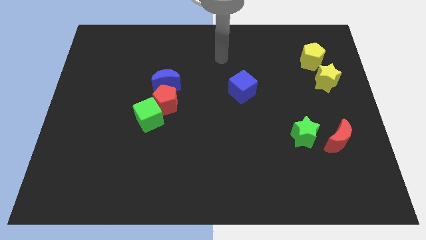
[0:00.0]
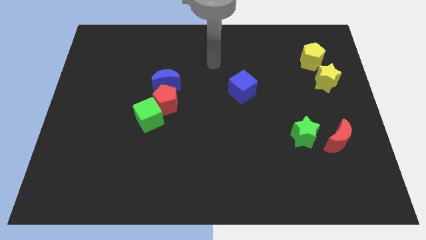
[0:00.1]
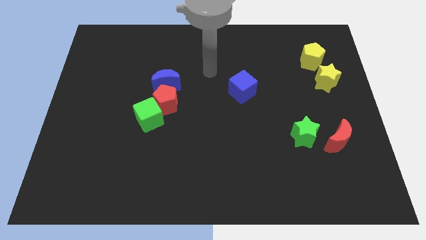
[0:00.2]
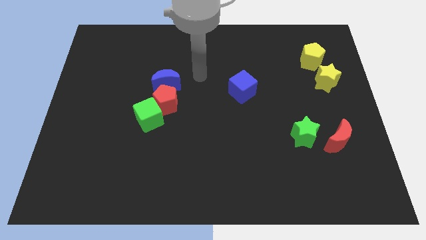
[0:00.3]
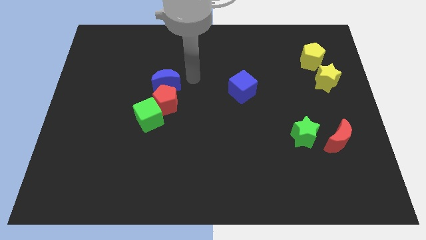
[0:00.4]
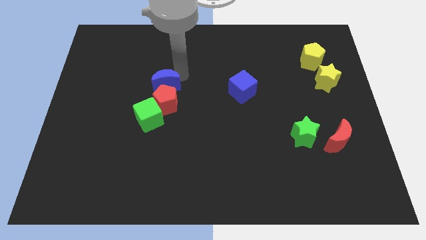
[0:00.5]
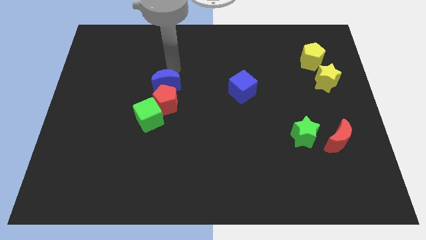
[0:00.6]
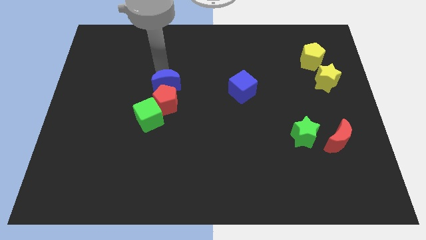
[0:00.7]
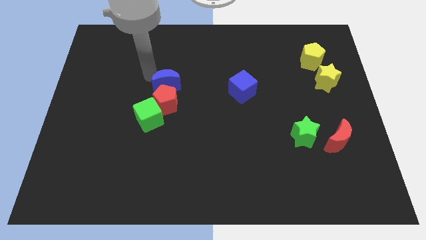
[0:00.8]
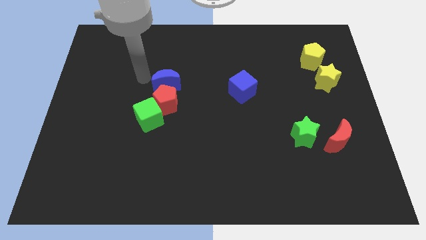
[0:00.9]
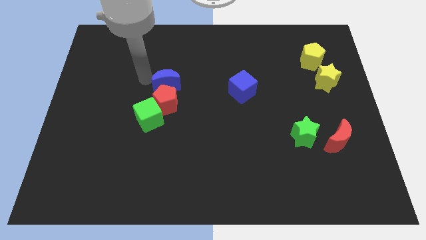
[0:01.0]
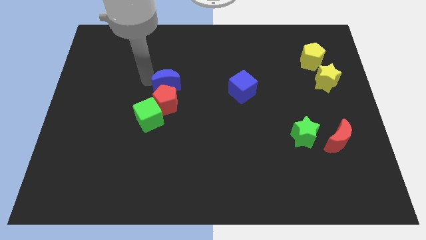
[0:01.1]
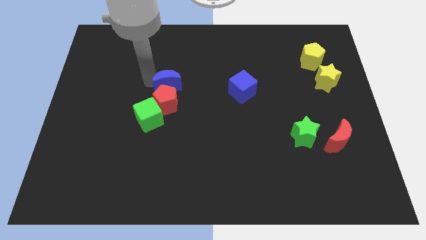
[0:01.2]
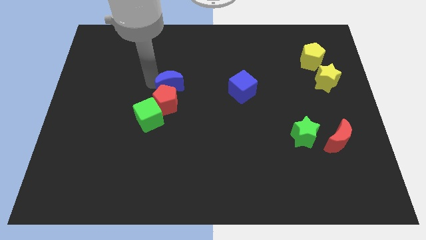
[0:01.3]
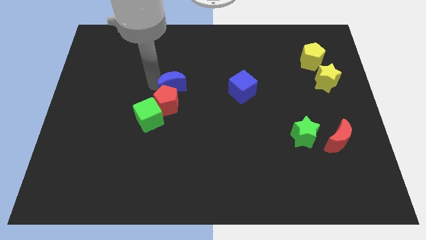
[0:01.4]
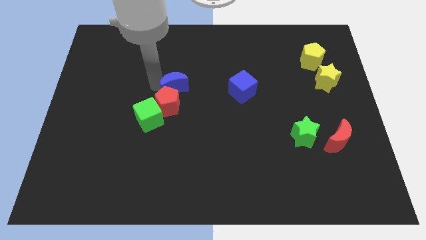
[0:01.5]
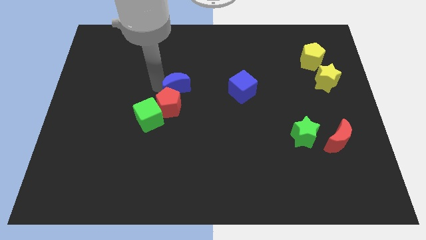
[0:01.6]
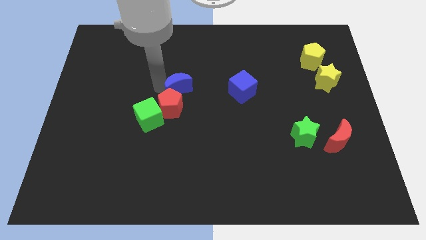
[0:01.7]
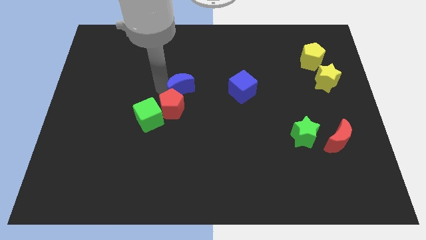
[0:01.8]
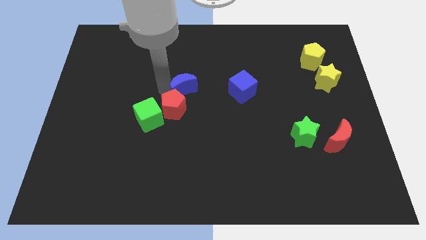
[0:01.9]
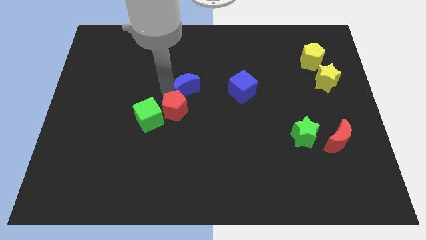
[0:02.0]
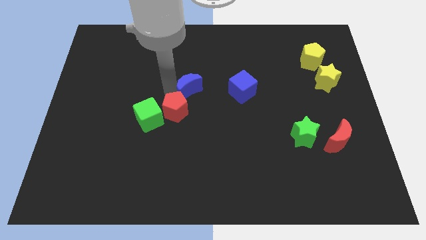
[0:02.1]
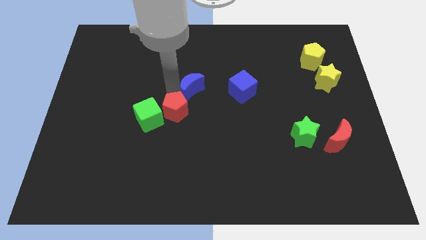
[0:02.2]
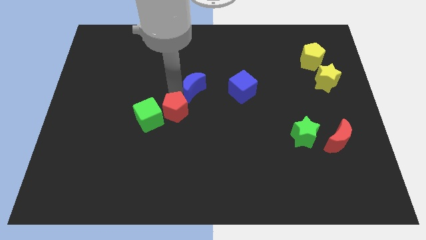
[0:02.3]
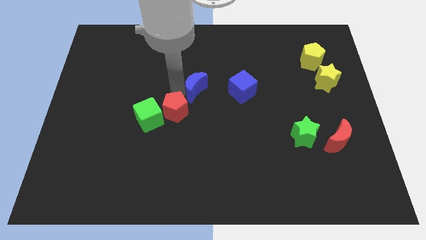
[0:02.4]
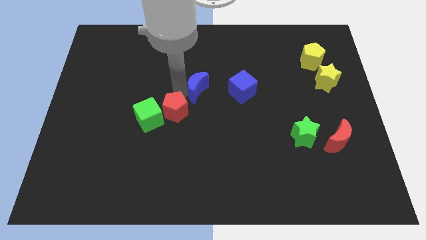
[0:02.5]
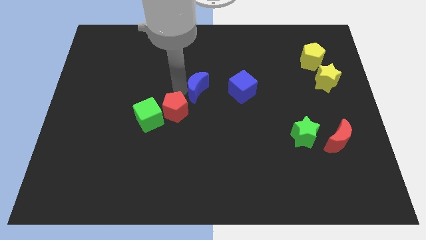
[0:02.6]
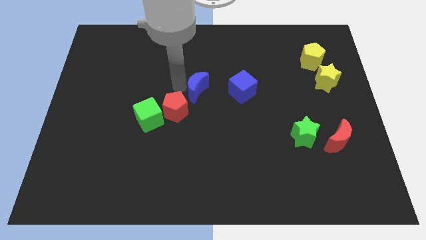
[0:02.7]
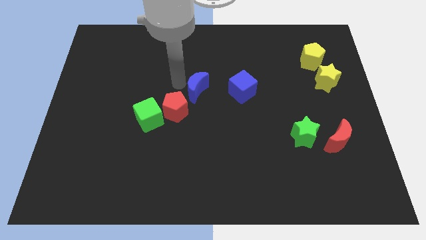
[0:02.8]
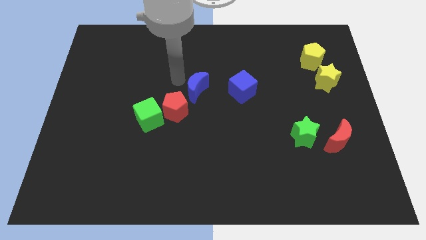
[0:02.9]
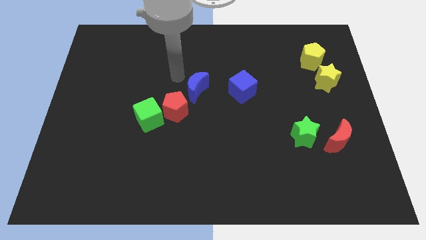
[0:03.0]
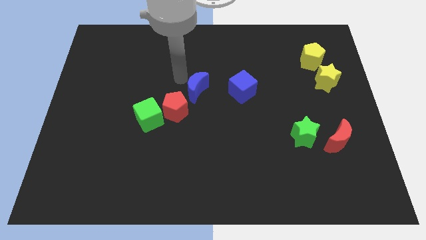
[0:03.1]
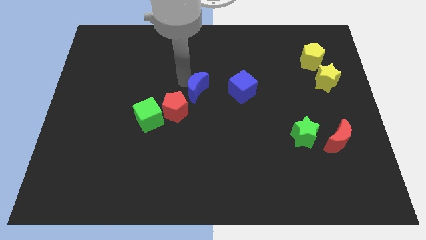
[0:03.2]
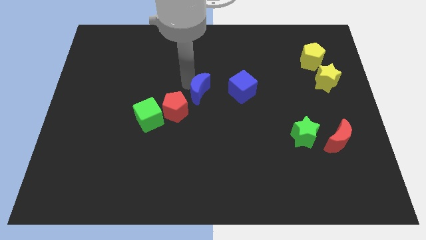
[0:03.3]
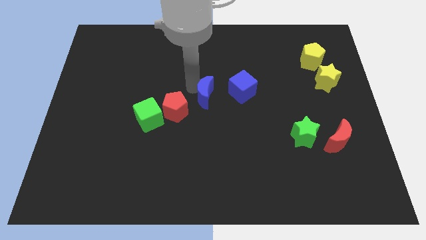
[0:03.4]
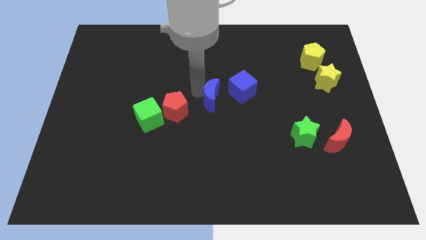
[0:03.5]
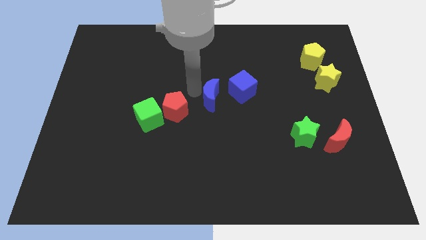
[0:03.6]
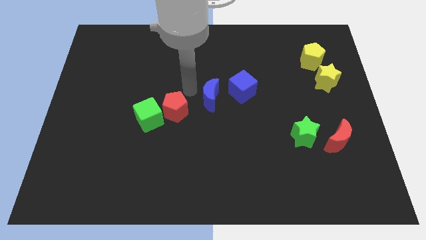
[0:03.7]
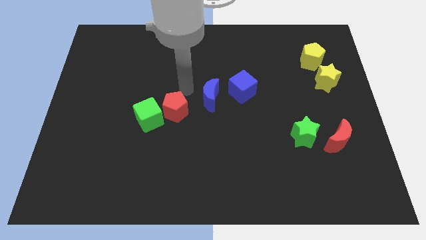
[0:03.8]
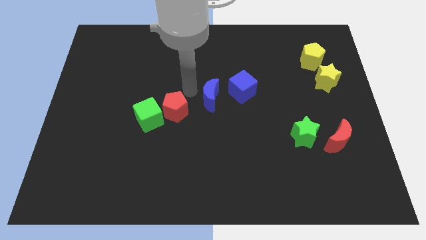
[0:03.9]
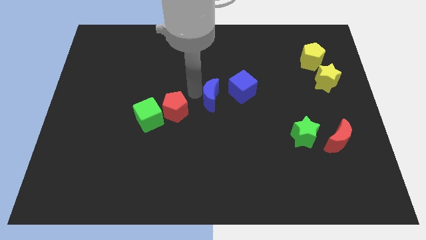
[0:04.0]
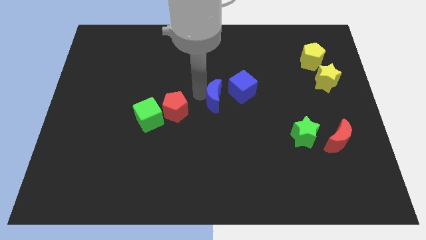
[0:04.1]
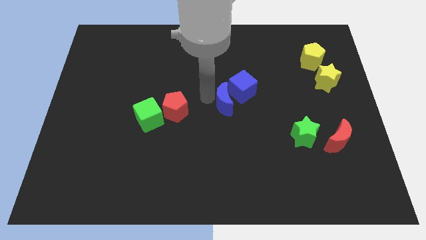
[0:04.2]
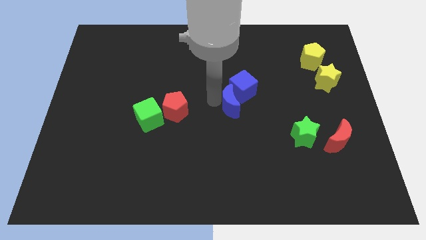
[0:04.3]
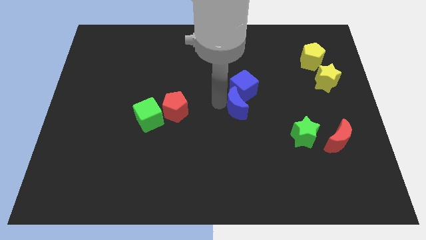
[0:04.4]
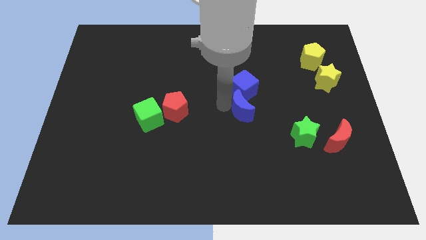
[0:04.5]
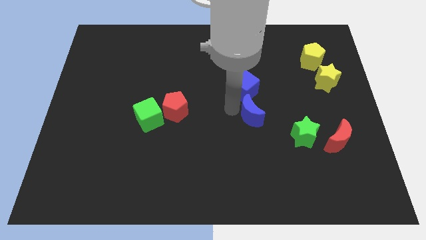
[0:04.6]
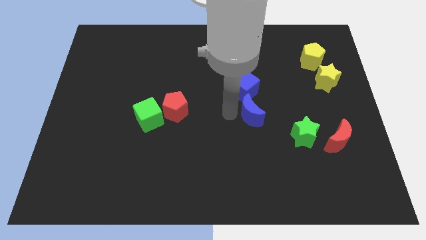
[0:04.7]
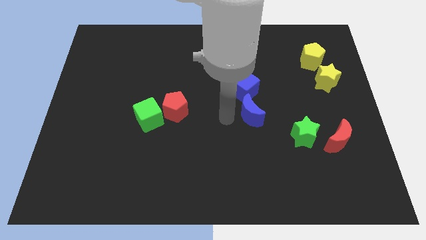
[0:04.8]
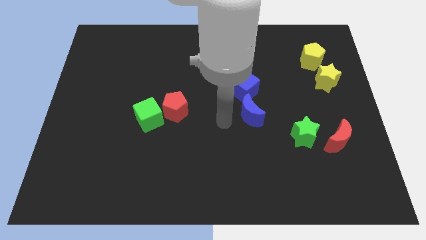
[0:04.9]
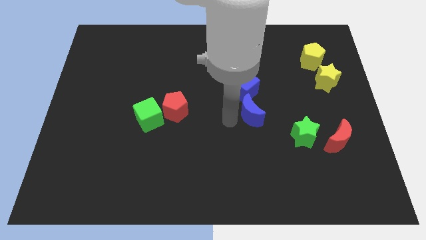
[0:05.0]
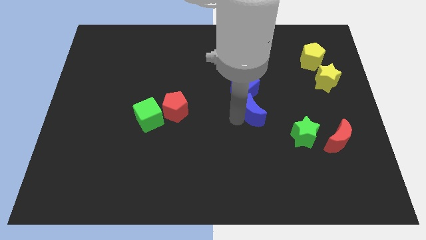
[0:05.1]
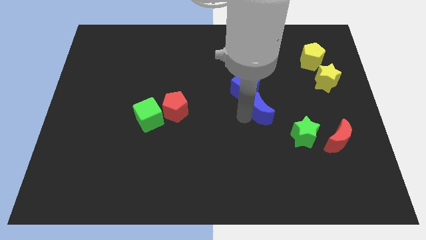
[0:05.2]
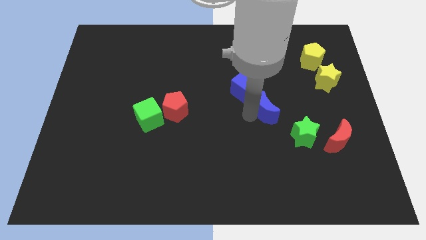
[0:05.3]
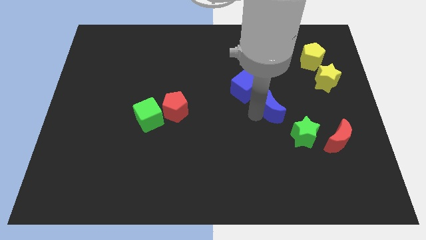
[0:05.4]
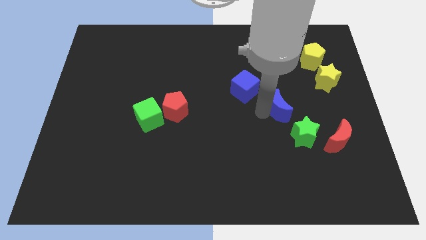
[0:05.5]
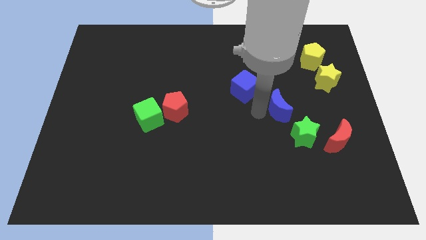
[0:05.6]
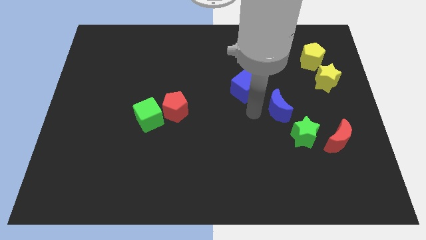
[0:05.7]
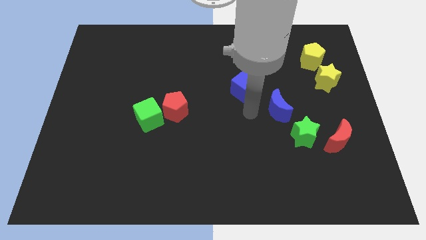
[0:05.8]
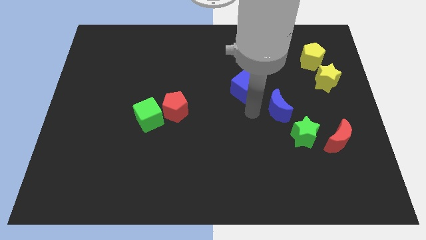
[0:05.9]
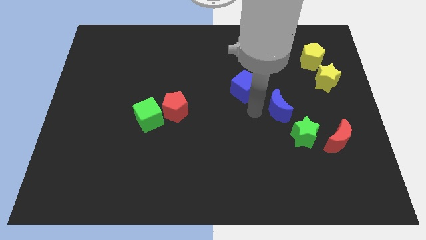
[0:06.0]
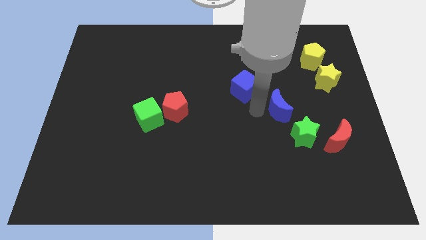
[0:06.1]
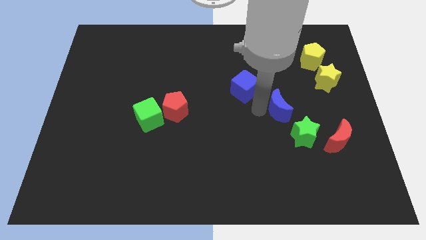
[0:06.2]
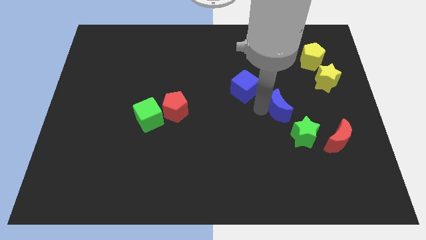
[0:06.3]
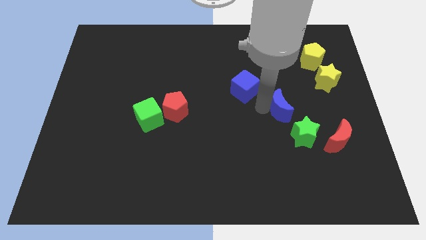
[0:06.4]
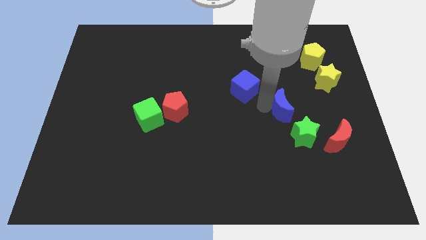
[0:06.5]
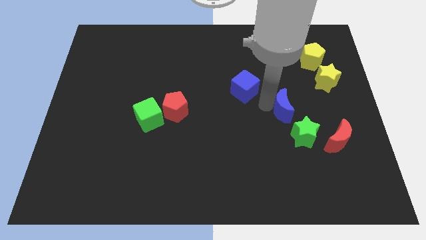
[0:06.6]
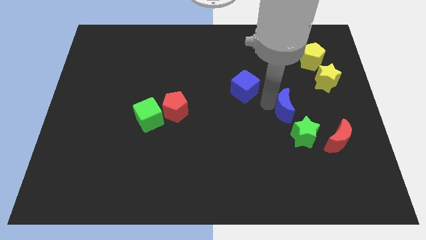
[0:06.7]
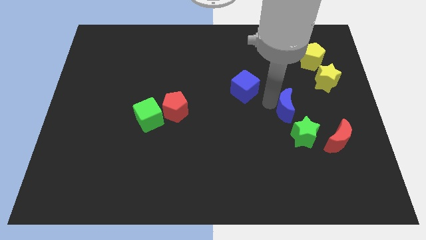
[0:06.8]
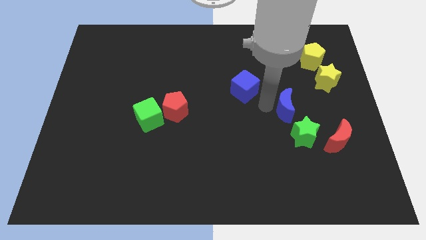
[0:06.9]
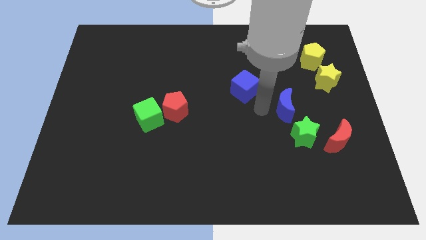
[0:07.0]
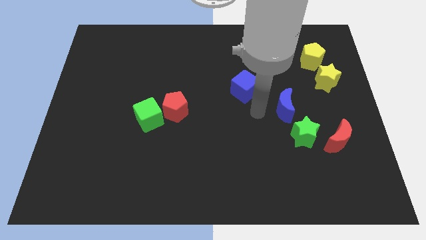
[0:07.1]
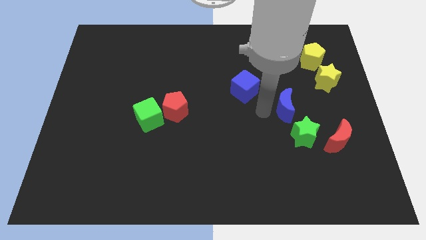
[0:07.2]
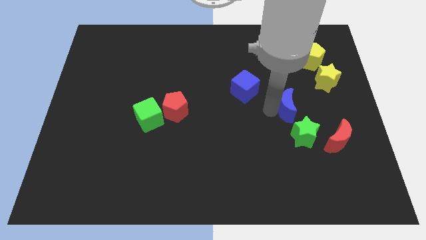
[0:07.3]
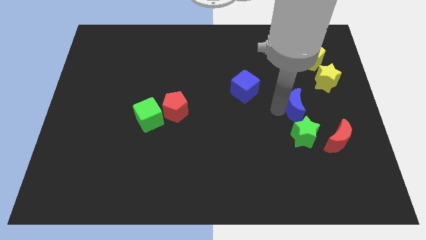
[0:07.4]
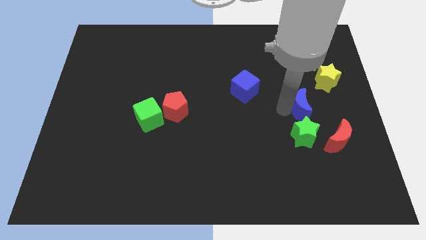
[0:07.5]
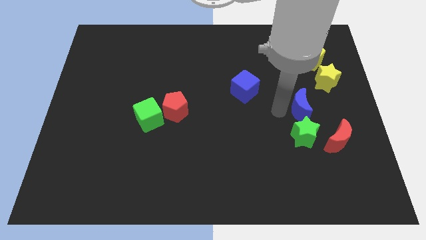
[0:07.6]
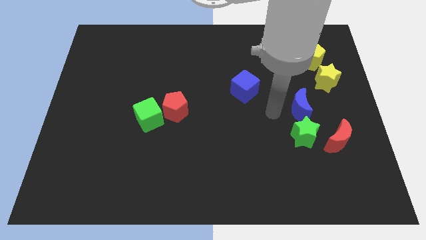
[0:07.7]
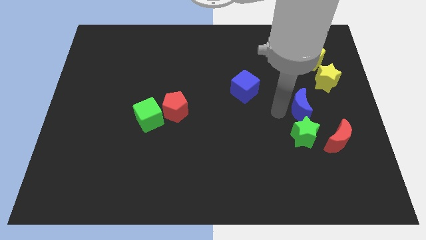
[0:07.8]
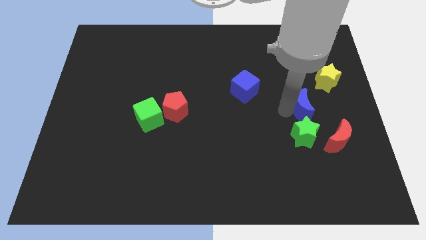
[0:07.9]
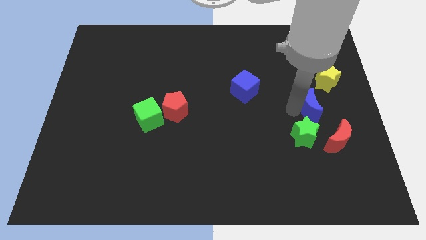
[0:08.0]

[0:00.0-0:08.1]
push the blue moon to the top of the red moon
